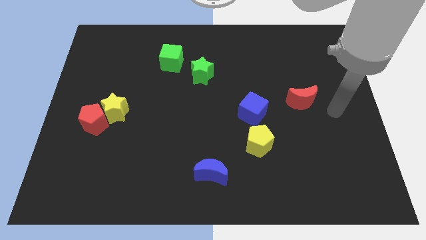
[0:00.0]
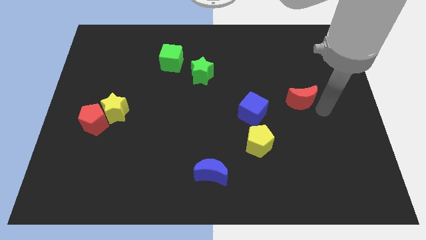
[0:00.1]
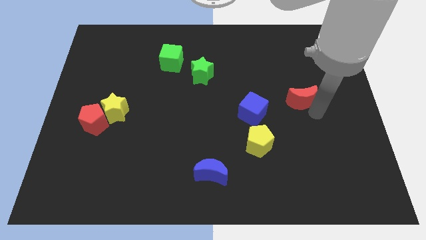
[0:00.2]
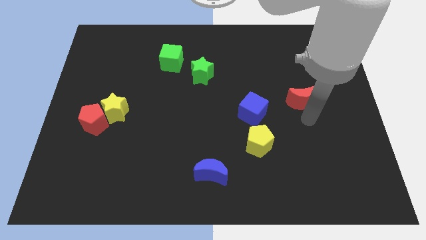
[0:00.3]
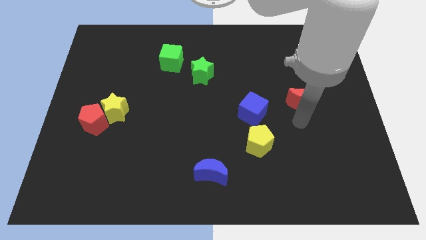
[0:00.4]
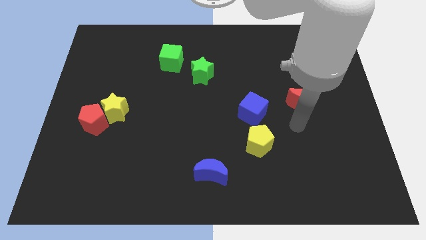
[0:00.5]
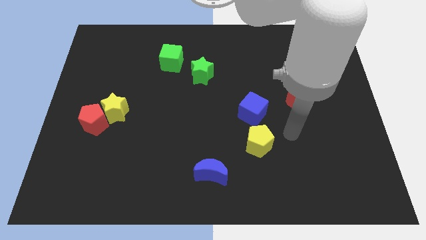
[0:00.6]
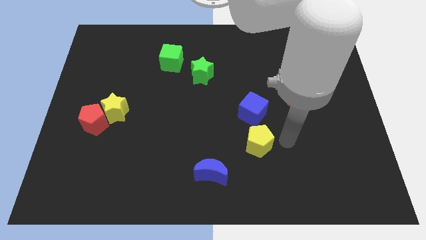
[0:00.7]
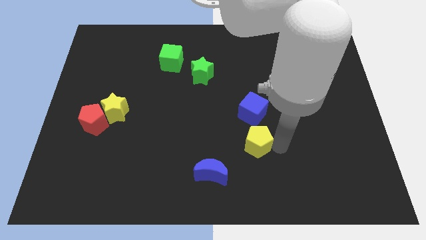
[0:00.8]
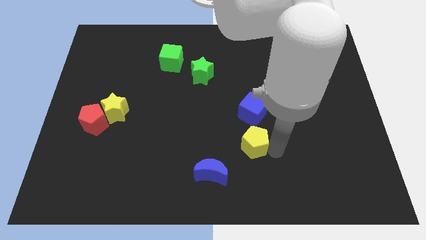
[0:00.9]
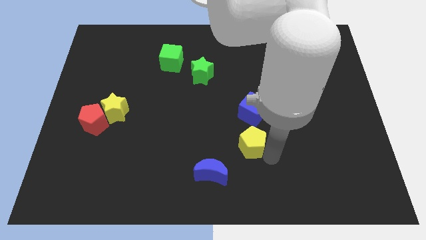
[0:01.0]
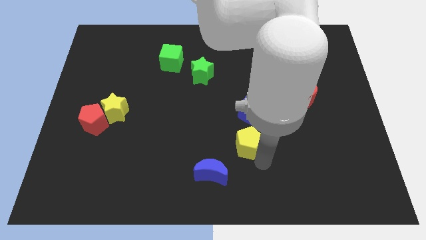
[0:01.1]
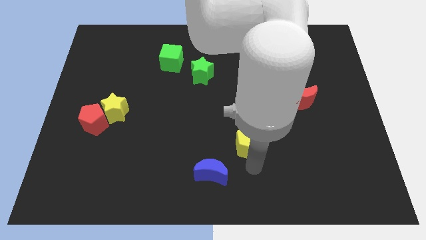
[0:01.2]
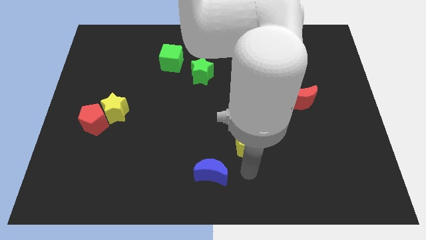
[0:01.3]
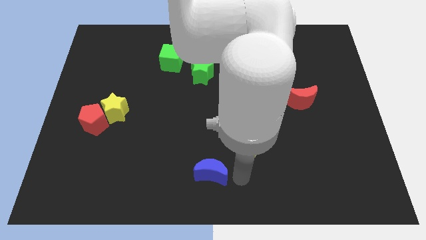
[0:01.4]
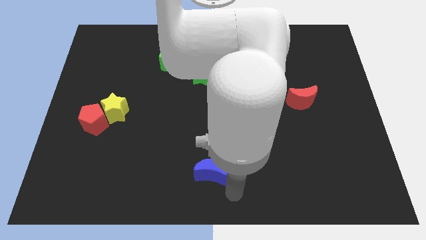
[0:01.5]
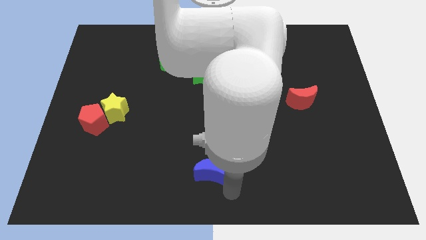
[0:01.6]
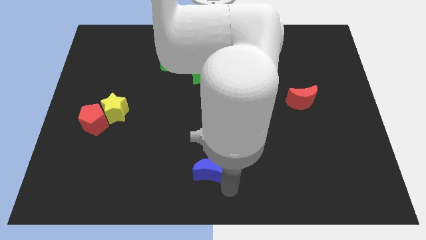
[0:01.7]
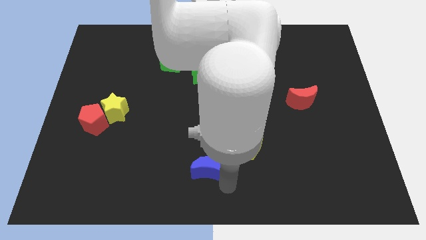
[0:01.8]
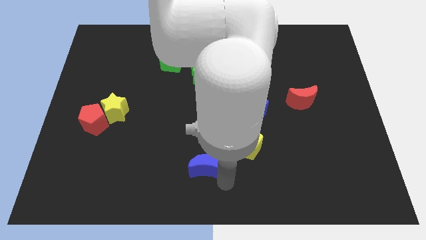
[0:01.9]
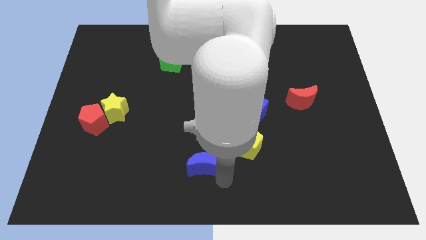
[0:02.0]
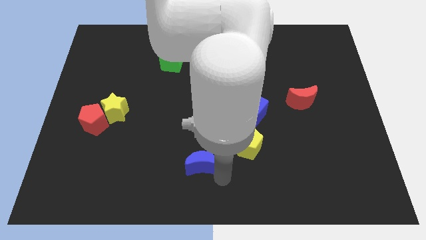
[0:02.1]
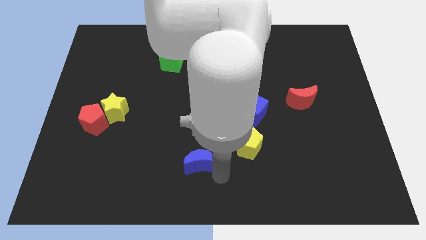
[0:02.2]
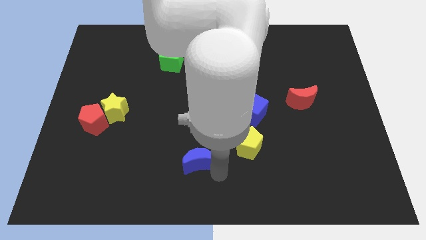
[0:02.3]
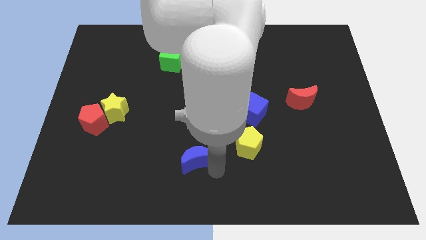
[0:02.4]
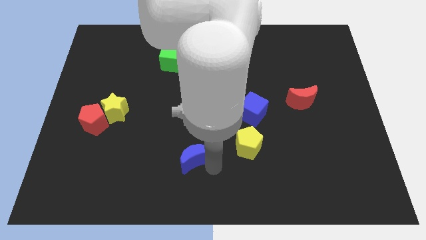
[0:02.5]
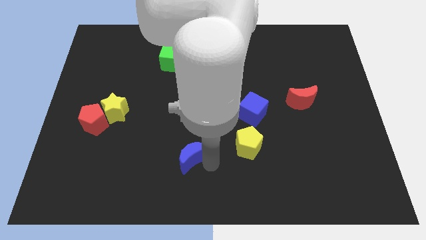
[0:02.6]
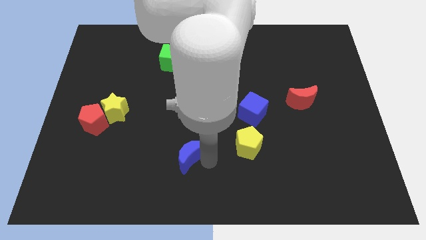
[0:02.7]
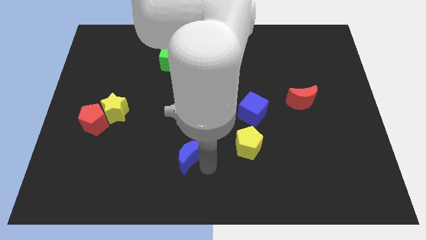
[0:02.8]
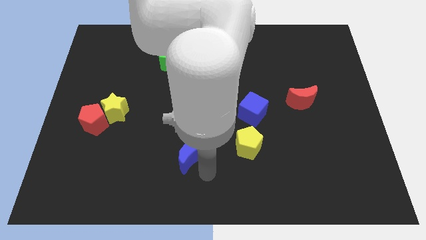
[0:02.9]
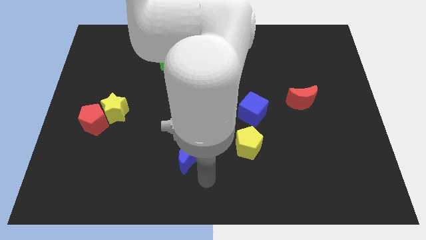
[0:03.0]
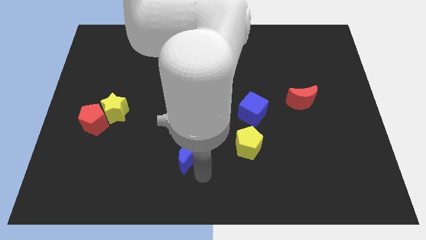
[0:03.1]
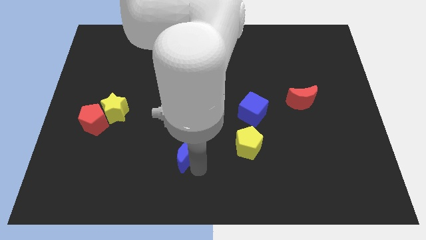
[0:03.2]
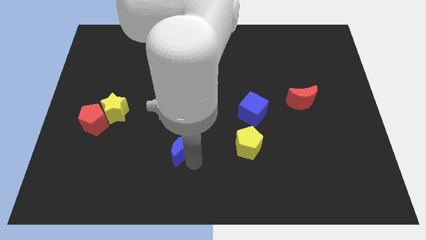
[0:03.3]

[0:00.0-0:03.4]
slightly push the blue moon up and left diagonally

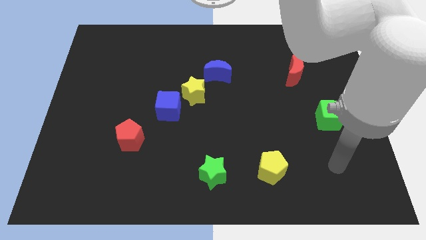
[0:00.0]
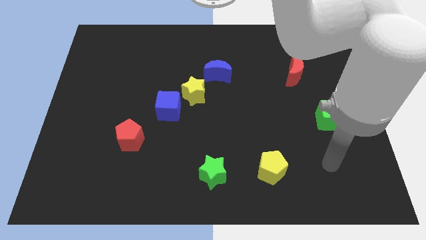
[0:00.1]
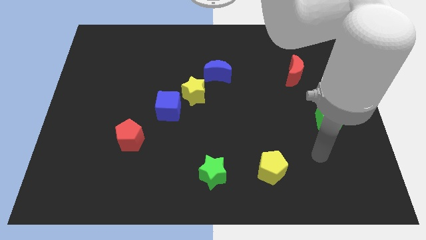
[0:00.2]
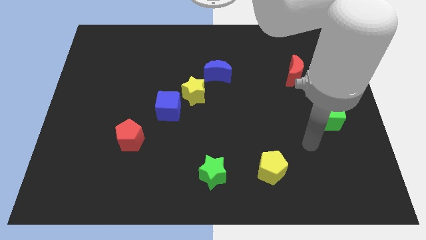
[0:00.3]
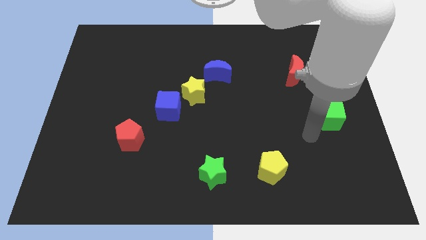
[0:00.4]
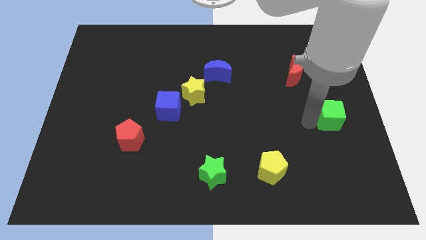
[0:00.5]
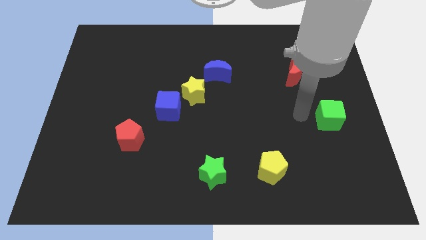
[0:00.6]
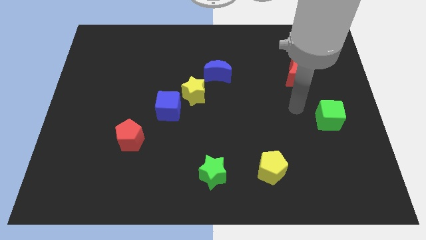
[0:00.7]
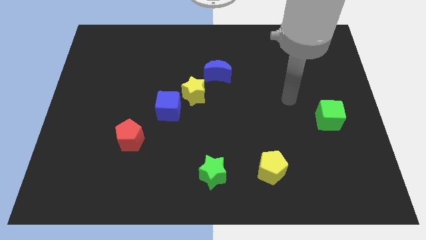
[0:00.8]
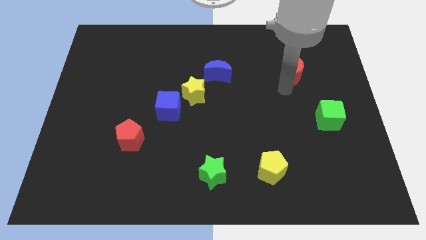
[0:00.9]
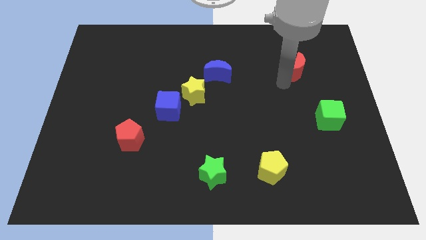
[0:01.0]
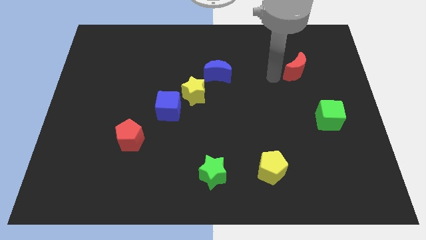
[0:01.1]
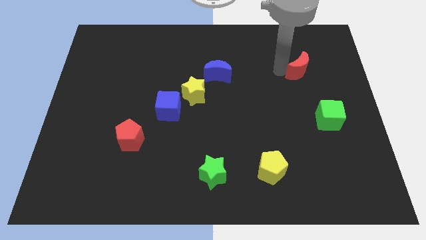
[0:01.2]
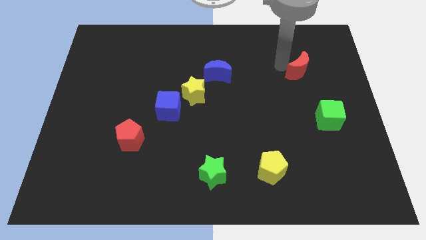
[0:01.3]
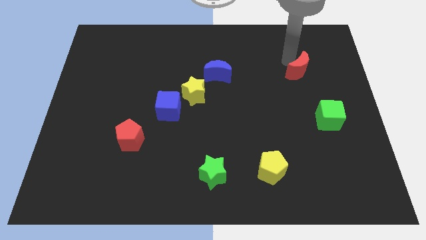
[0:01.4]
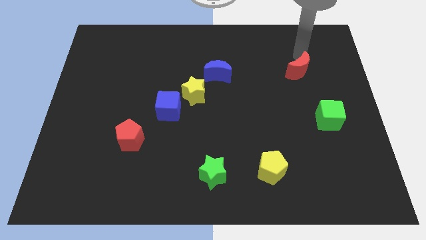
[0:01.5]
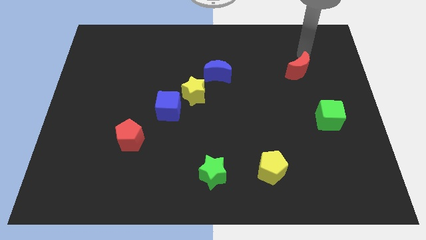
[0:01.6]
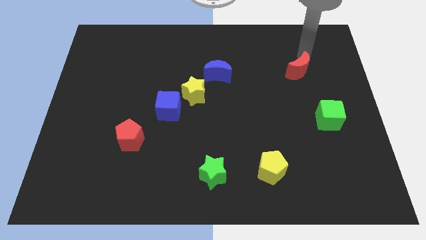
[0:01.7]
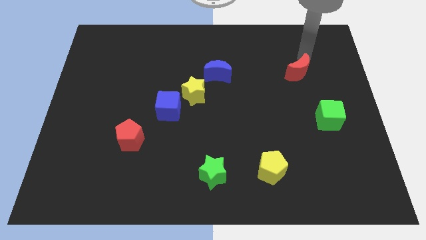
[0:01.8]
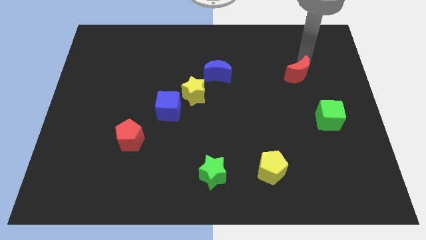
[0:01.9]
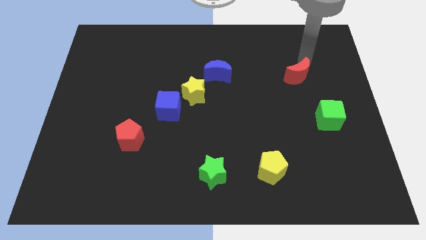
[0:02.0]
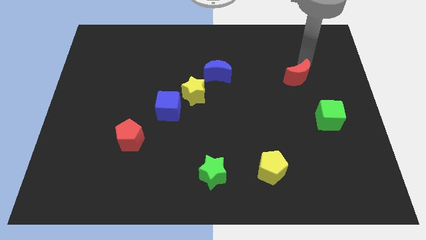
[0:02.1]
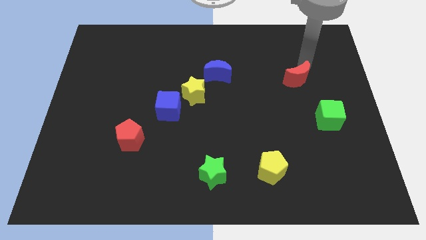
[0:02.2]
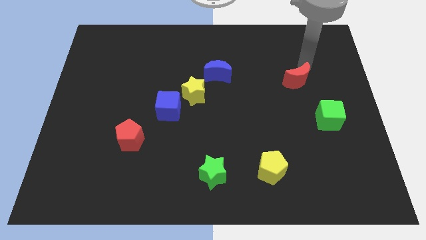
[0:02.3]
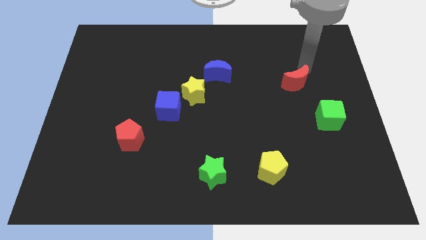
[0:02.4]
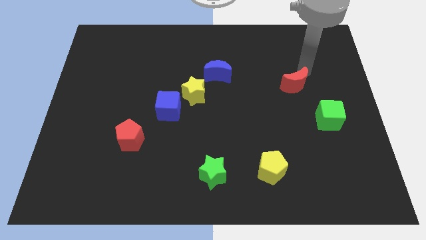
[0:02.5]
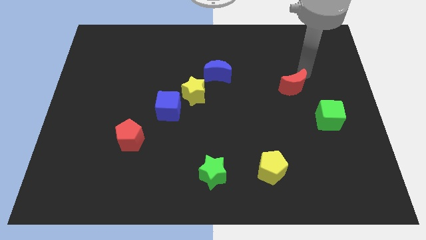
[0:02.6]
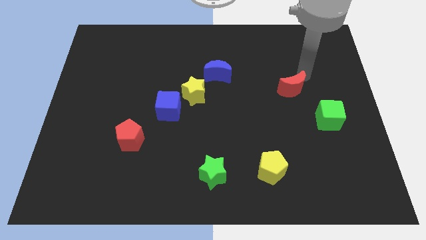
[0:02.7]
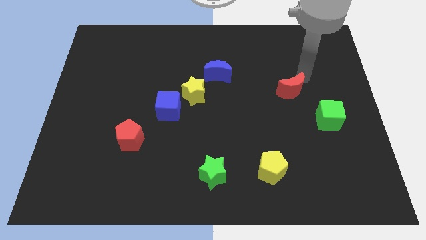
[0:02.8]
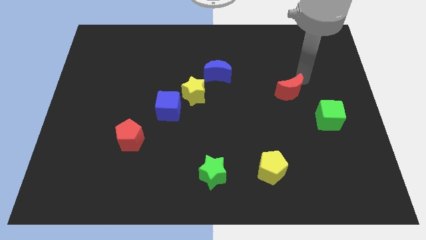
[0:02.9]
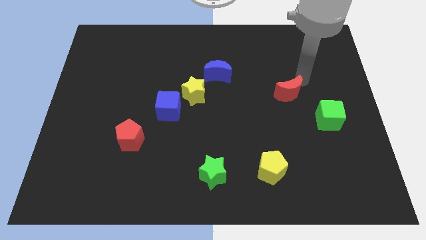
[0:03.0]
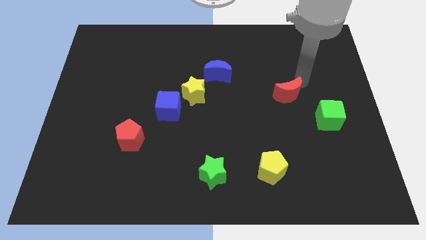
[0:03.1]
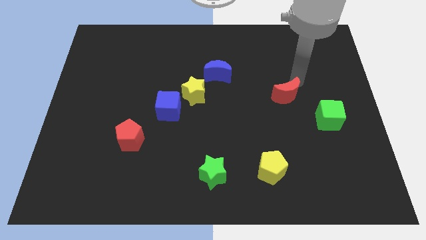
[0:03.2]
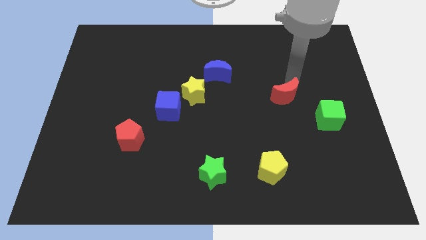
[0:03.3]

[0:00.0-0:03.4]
push the red moon a bit down

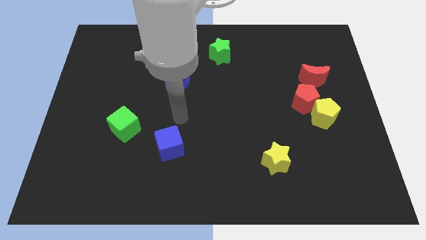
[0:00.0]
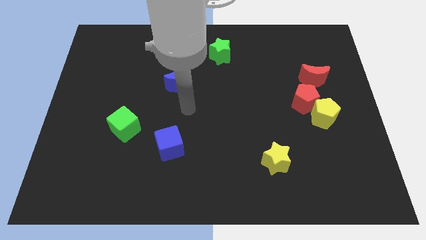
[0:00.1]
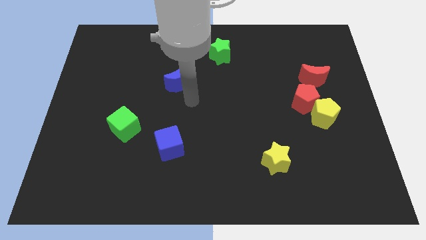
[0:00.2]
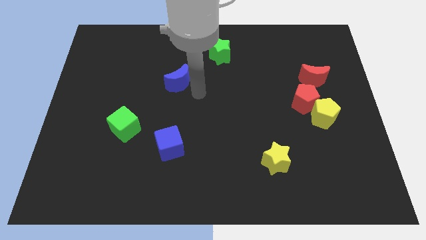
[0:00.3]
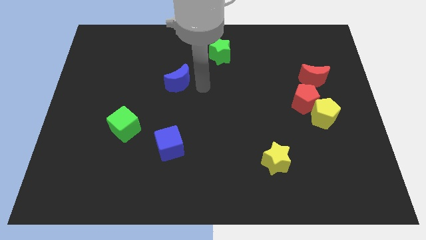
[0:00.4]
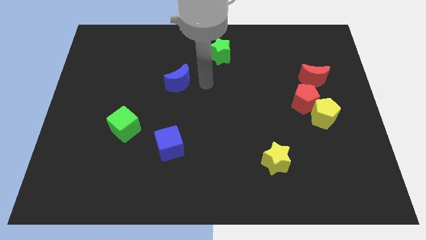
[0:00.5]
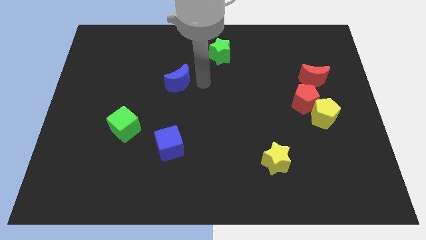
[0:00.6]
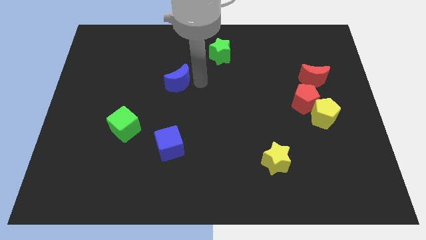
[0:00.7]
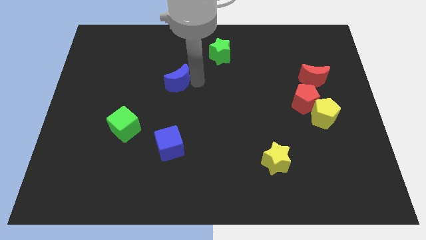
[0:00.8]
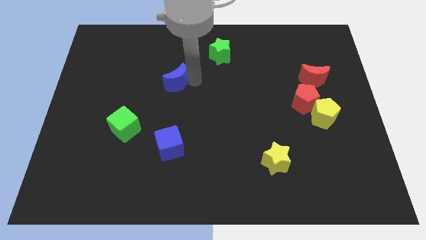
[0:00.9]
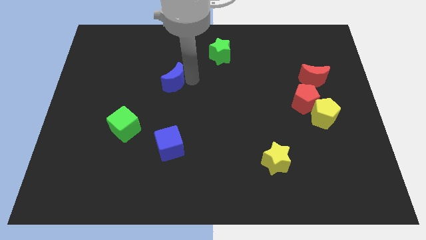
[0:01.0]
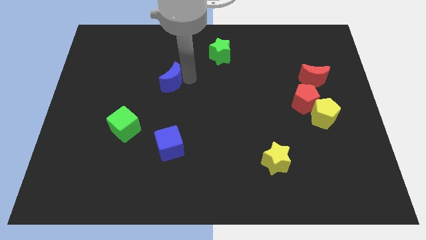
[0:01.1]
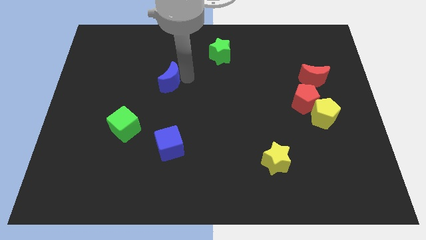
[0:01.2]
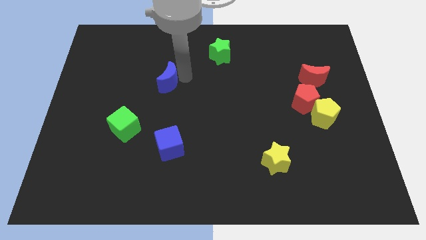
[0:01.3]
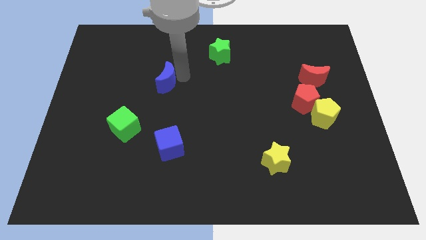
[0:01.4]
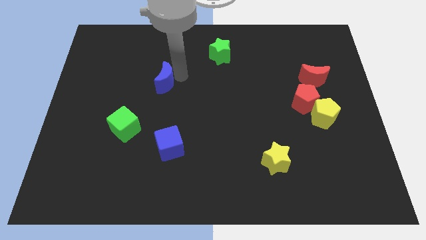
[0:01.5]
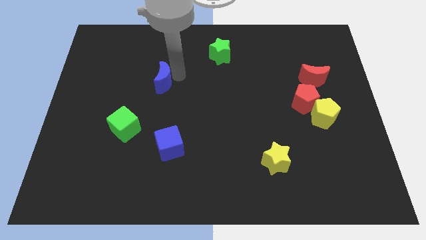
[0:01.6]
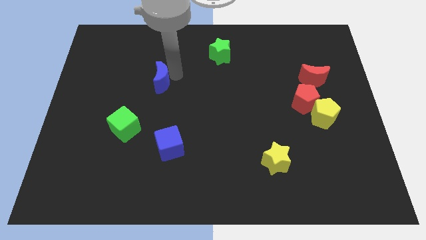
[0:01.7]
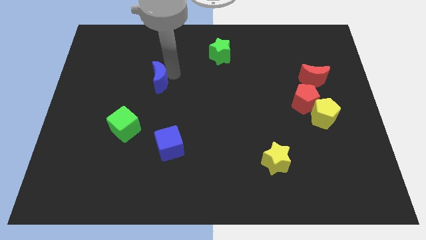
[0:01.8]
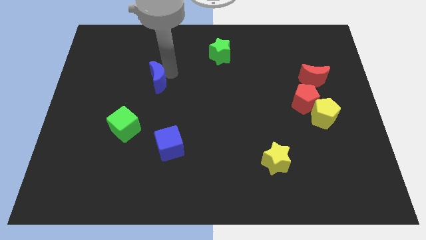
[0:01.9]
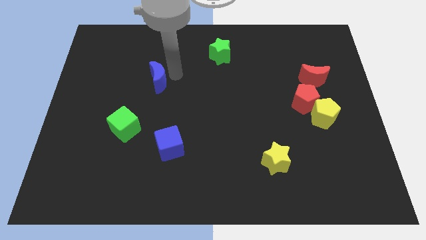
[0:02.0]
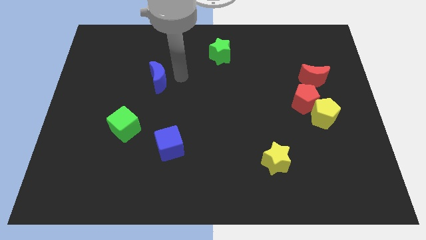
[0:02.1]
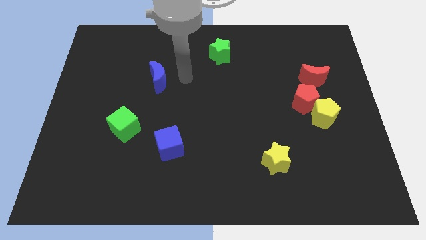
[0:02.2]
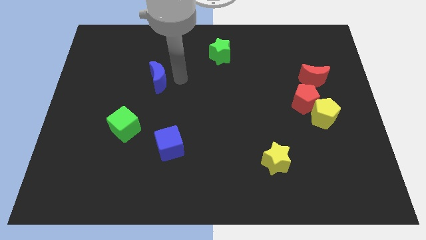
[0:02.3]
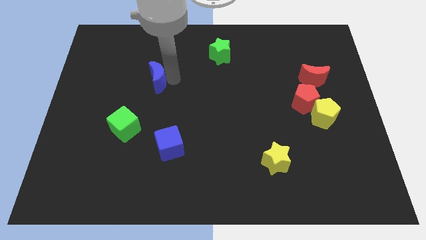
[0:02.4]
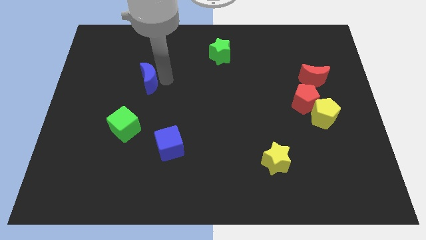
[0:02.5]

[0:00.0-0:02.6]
slide the blue moon a bit to the left
